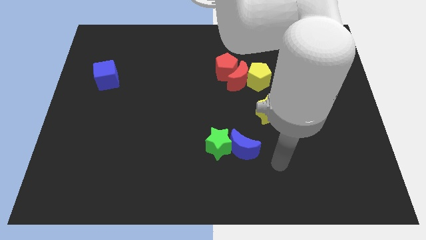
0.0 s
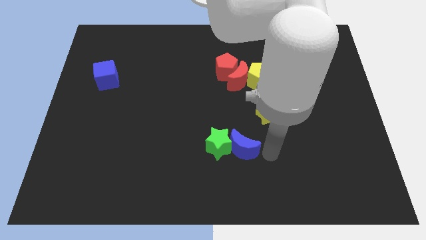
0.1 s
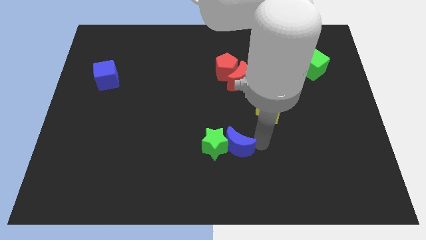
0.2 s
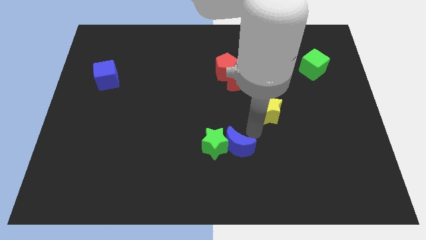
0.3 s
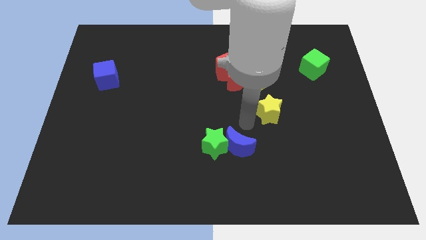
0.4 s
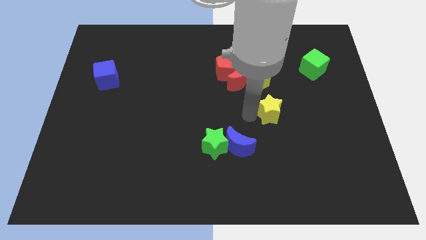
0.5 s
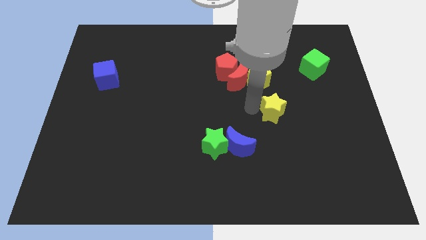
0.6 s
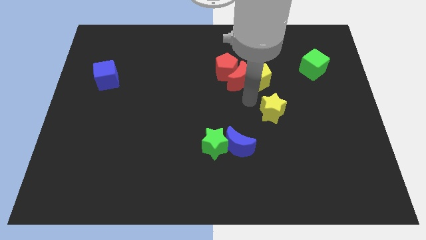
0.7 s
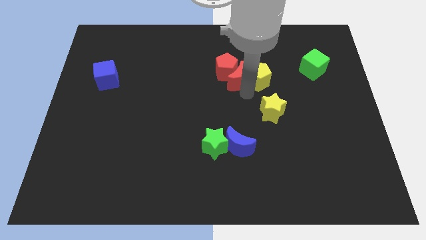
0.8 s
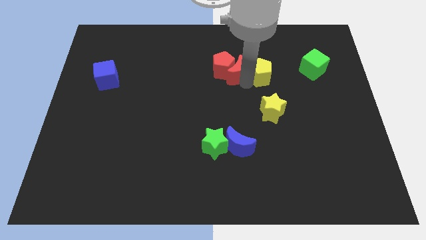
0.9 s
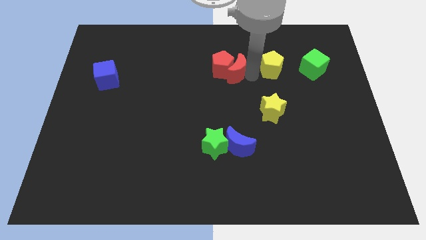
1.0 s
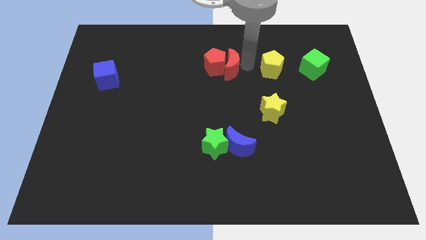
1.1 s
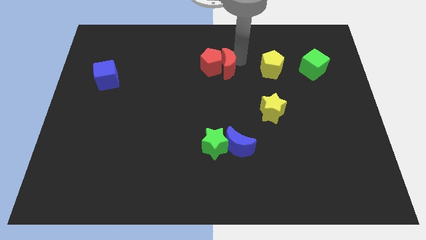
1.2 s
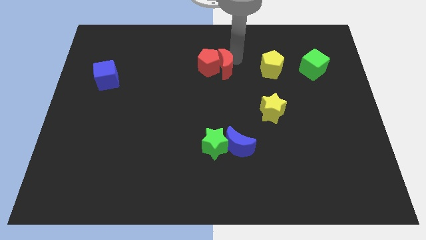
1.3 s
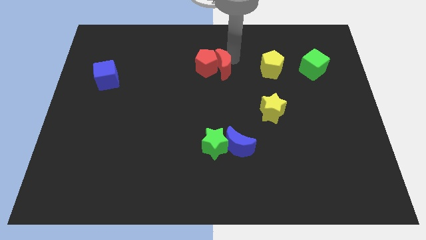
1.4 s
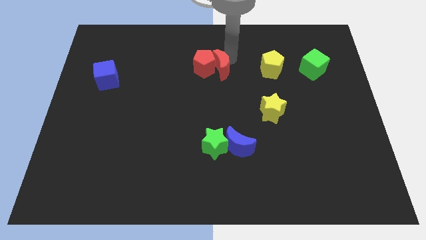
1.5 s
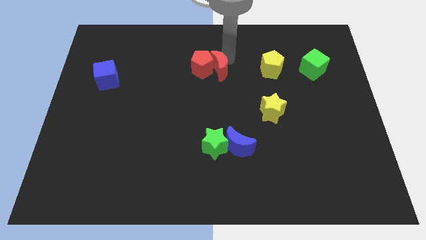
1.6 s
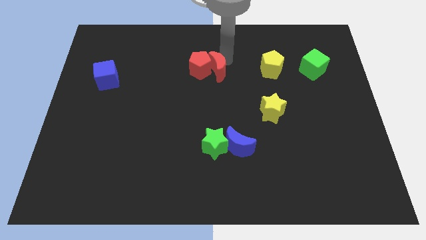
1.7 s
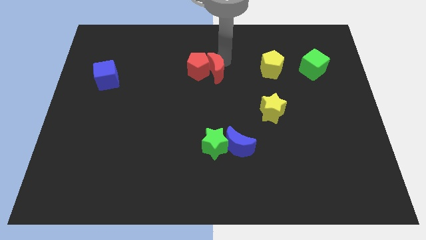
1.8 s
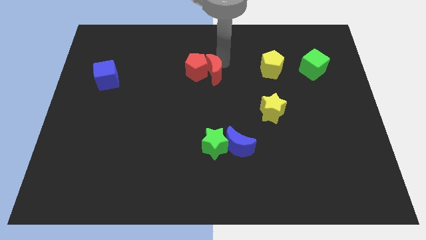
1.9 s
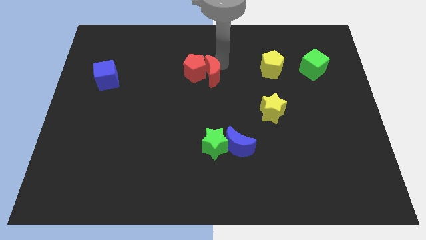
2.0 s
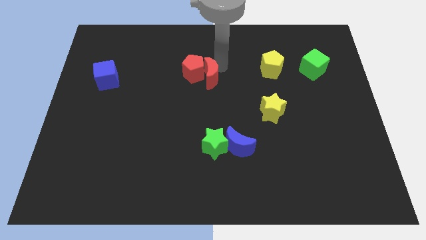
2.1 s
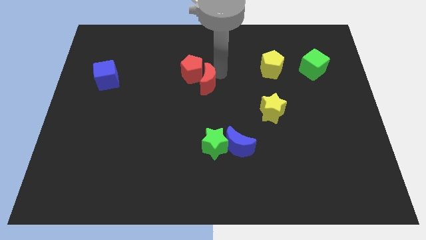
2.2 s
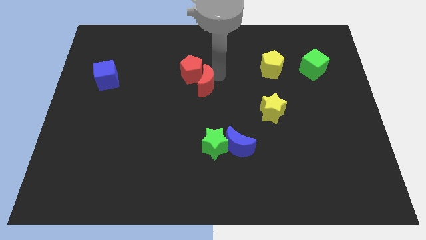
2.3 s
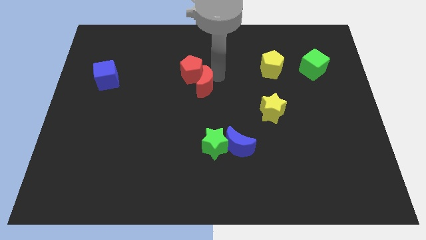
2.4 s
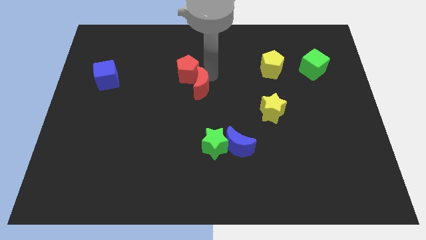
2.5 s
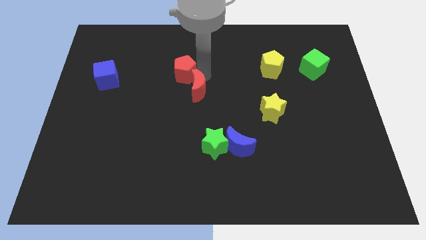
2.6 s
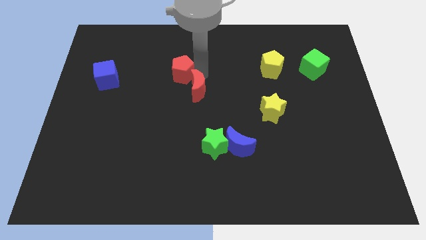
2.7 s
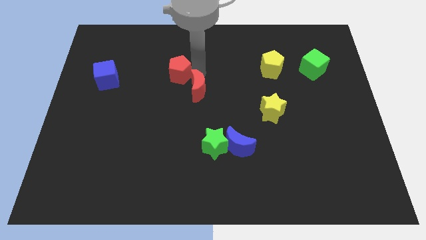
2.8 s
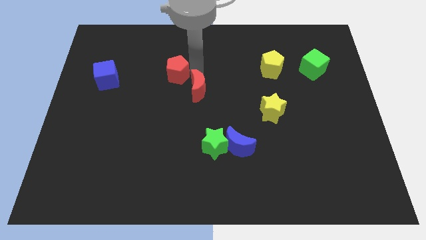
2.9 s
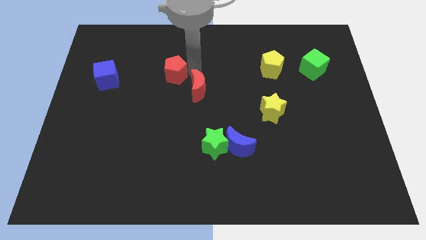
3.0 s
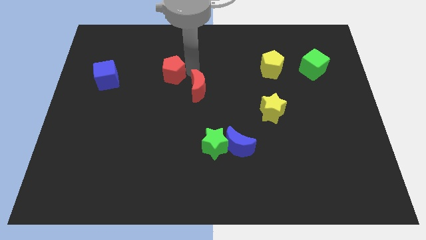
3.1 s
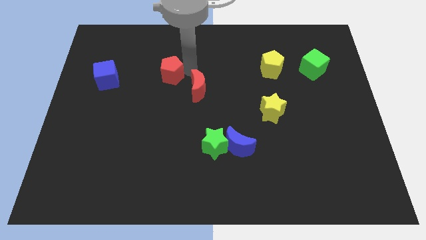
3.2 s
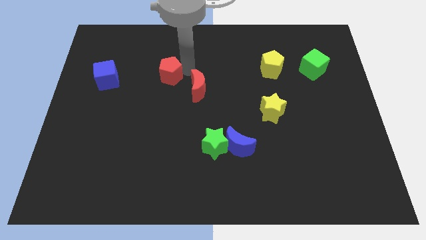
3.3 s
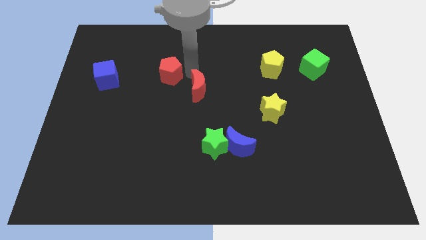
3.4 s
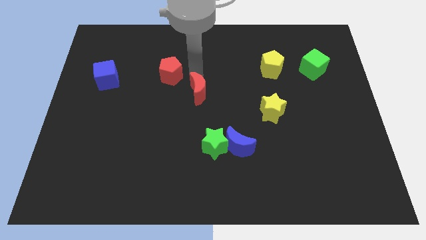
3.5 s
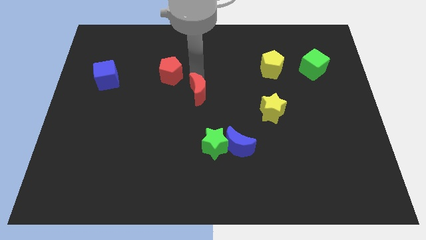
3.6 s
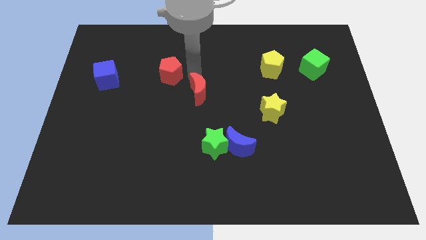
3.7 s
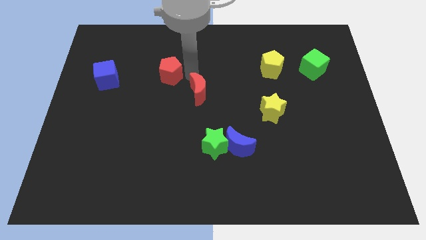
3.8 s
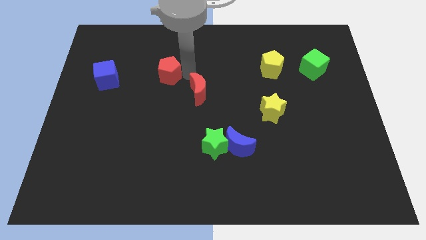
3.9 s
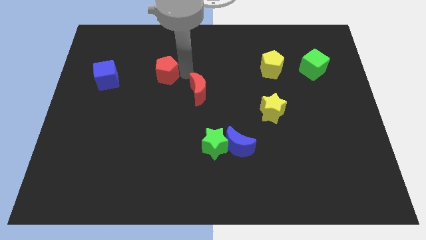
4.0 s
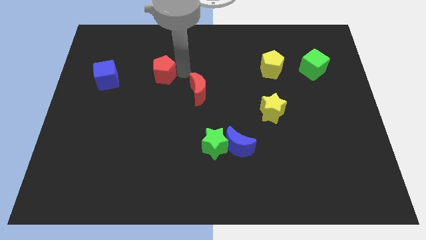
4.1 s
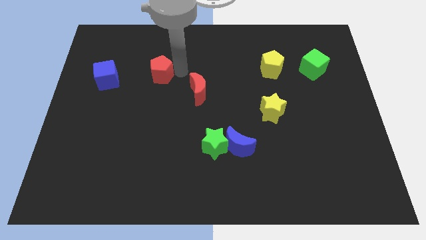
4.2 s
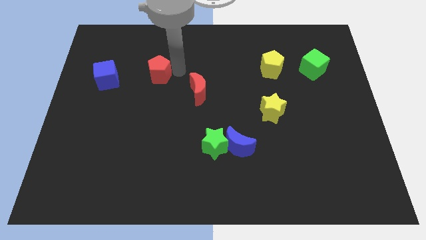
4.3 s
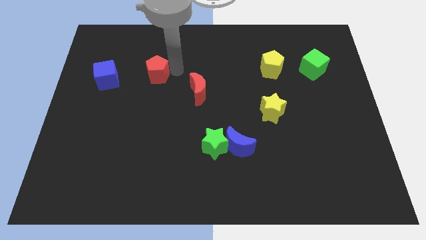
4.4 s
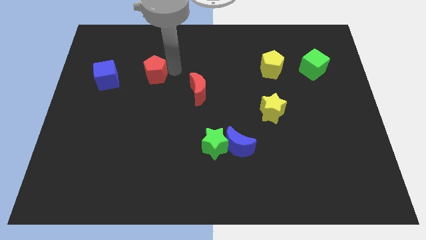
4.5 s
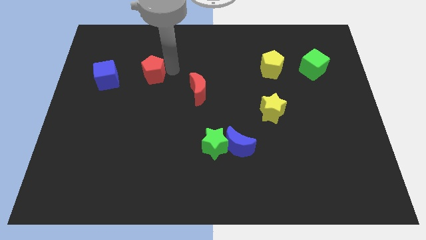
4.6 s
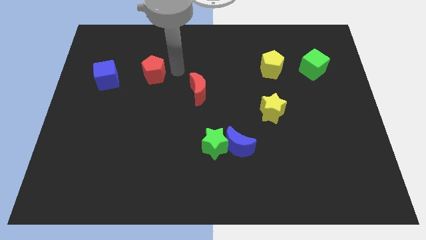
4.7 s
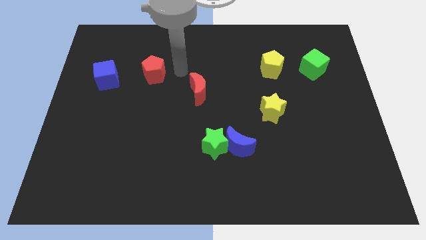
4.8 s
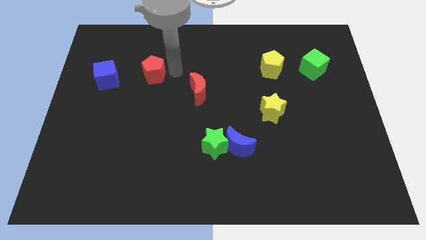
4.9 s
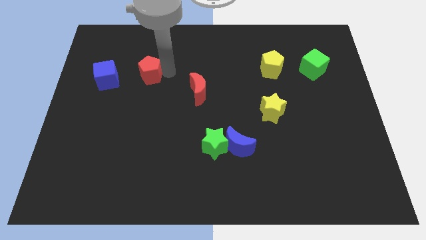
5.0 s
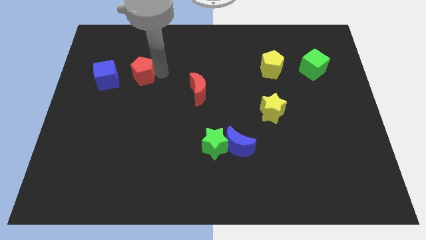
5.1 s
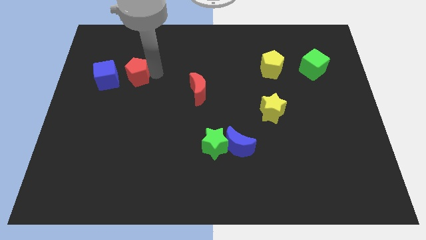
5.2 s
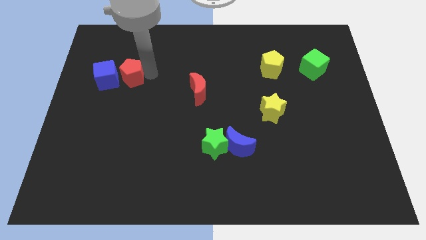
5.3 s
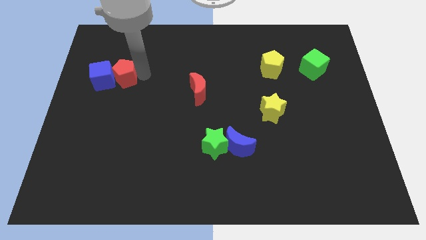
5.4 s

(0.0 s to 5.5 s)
slide the red pentagon towards the blue cube

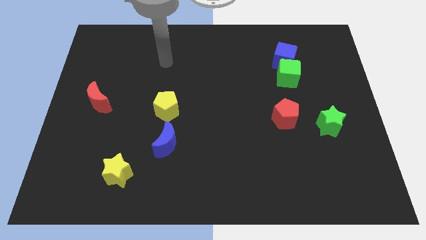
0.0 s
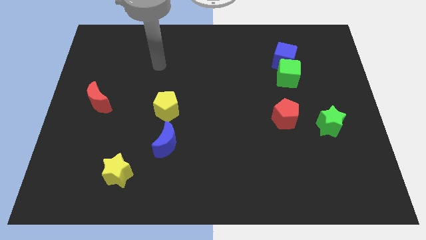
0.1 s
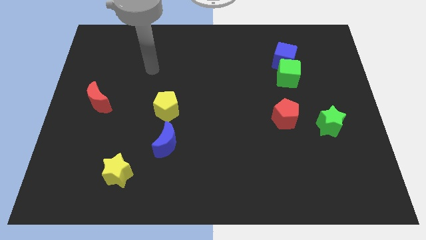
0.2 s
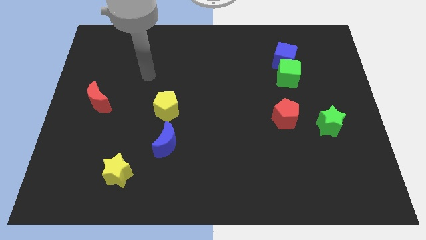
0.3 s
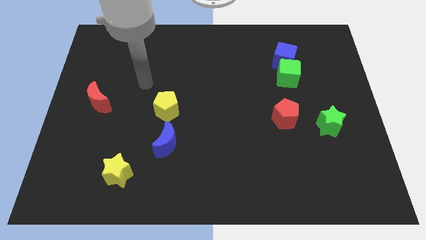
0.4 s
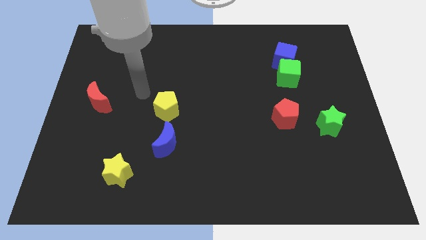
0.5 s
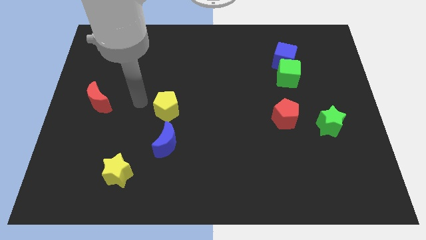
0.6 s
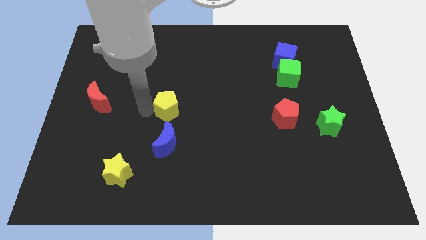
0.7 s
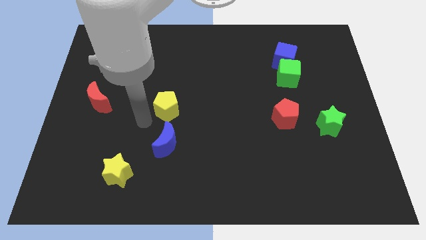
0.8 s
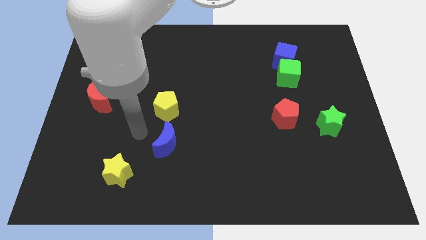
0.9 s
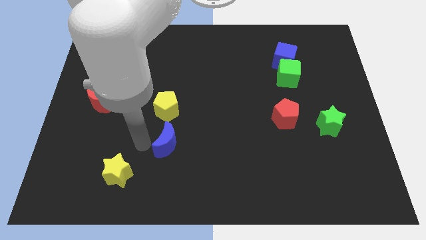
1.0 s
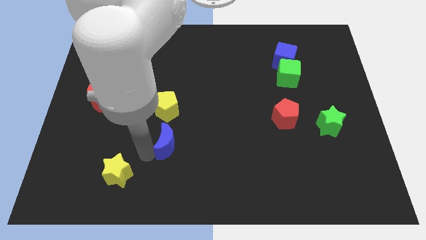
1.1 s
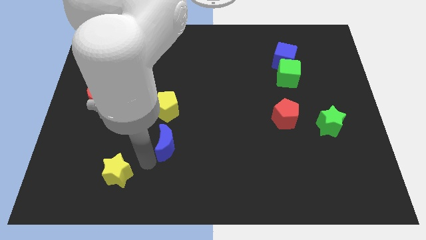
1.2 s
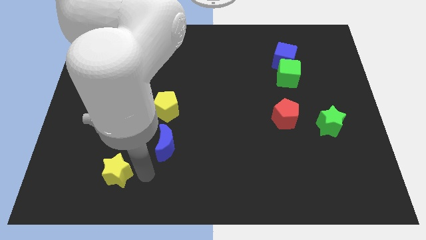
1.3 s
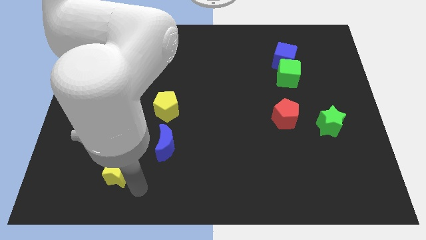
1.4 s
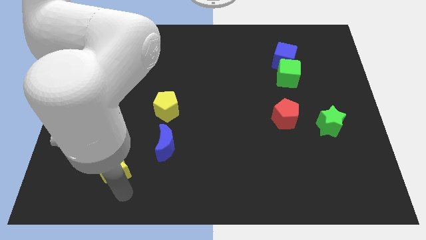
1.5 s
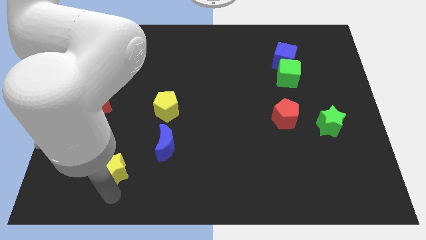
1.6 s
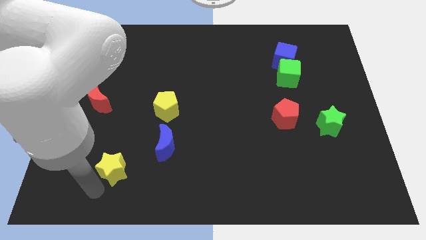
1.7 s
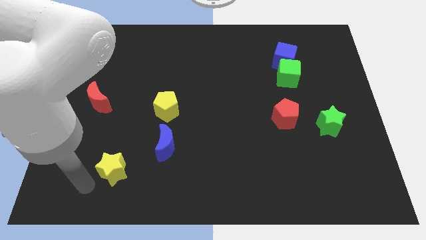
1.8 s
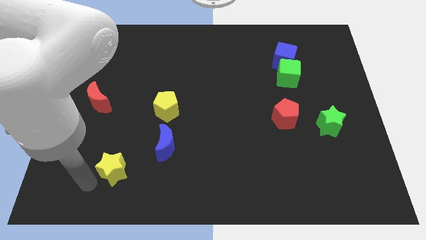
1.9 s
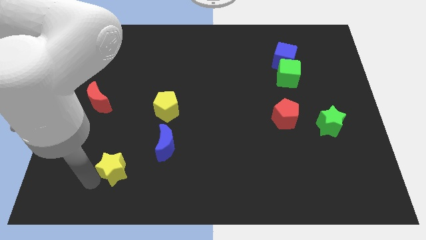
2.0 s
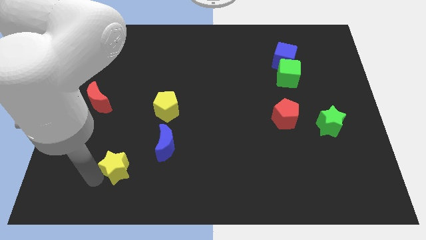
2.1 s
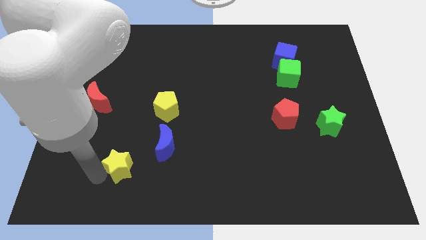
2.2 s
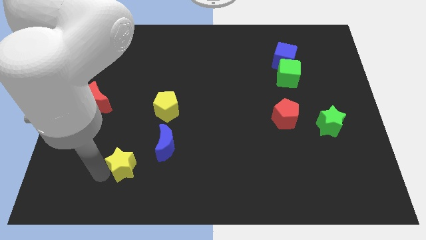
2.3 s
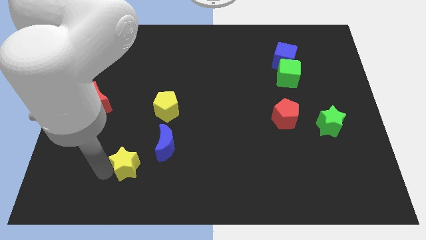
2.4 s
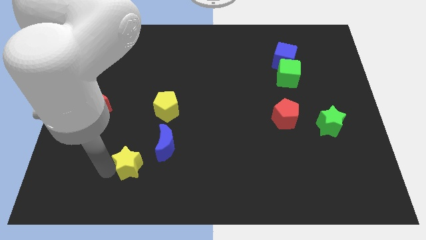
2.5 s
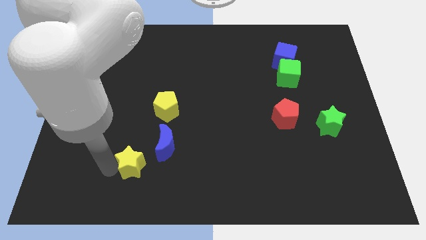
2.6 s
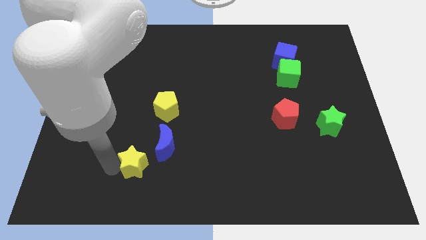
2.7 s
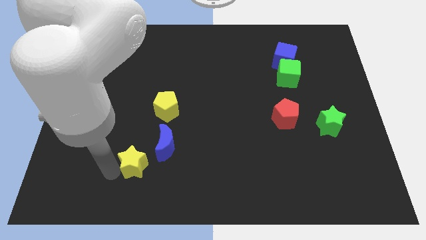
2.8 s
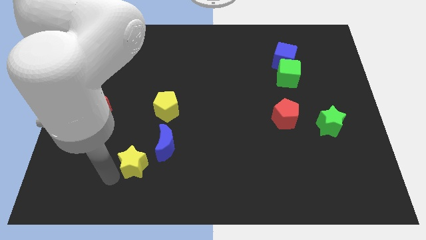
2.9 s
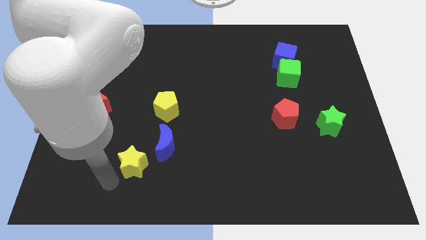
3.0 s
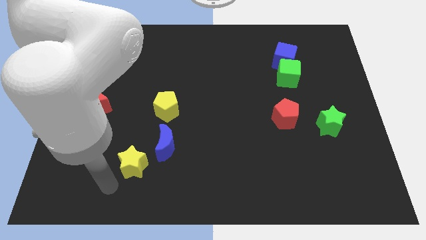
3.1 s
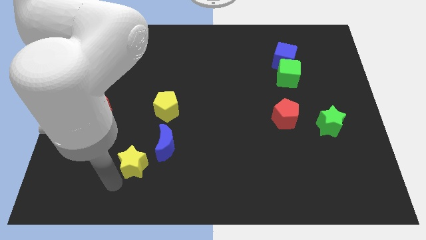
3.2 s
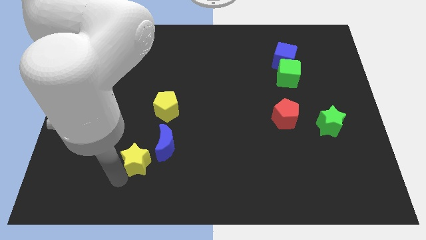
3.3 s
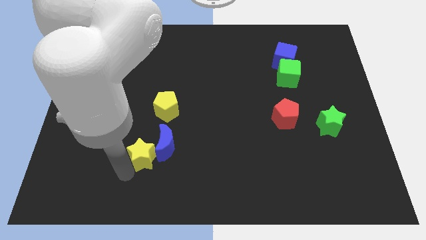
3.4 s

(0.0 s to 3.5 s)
push the yellow star close to the blue moon
